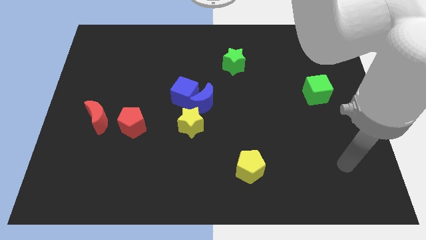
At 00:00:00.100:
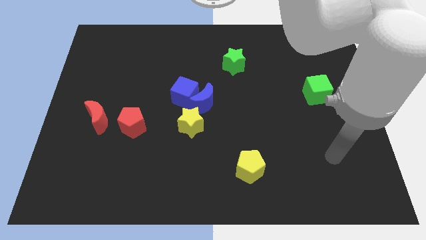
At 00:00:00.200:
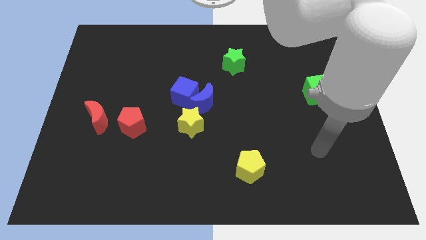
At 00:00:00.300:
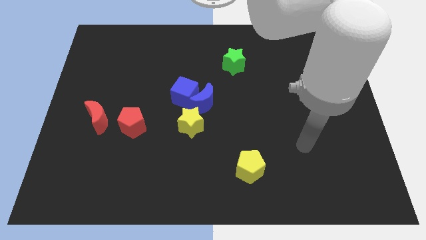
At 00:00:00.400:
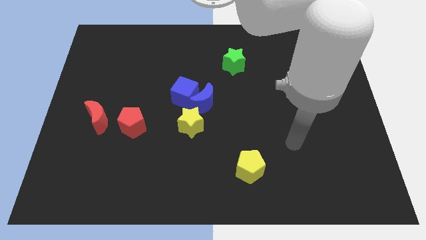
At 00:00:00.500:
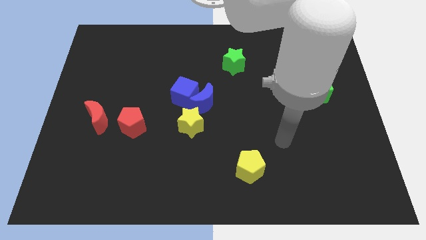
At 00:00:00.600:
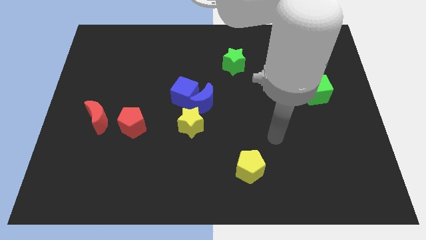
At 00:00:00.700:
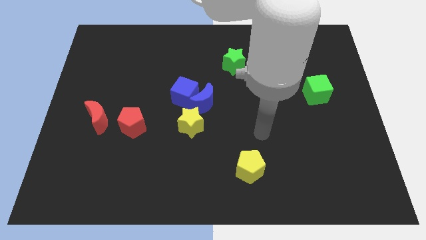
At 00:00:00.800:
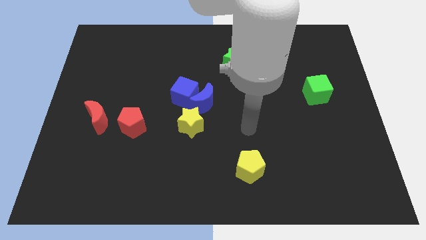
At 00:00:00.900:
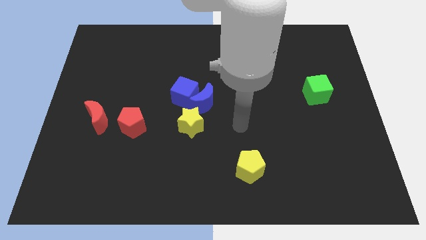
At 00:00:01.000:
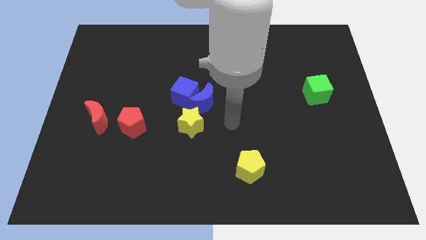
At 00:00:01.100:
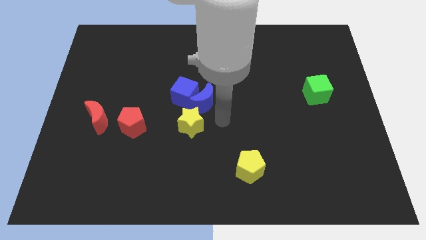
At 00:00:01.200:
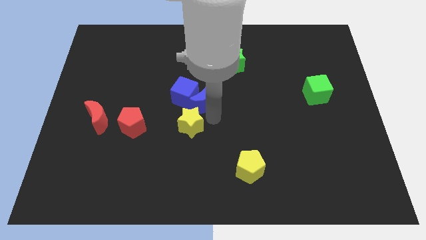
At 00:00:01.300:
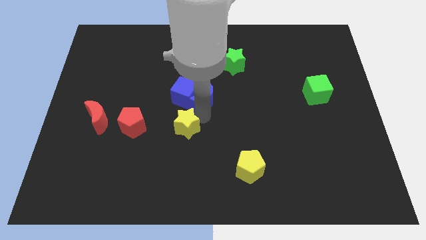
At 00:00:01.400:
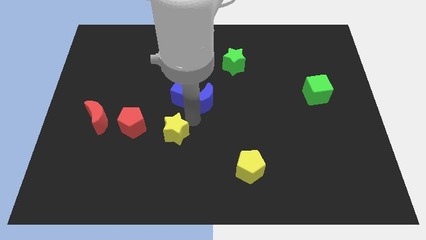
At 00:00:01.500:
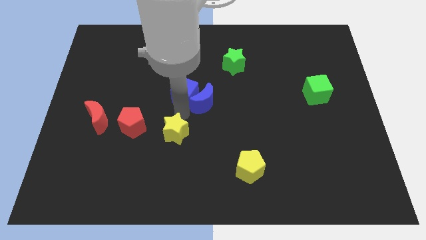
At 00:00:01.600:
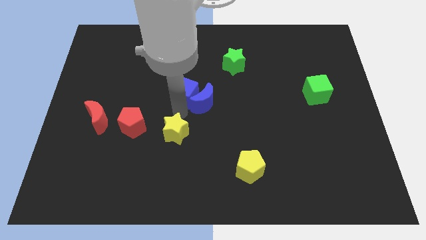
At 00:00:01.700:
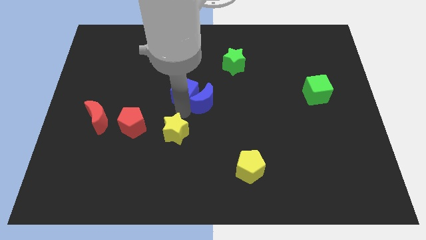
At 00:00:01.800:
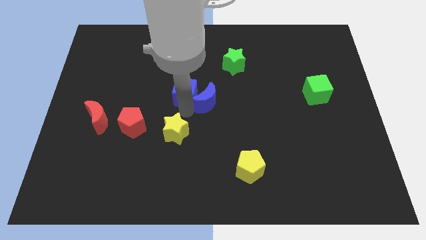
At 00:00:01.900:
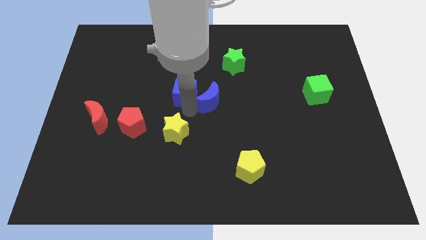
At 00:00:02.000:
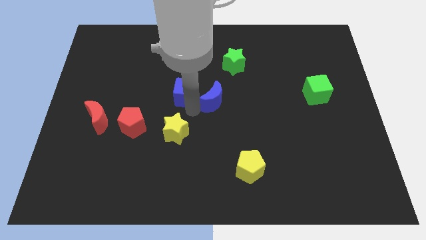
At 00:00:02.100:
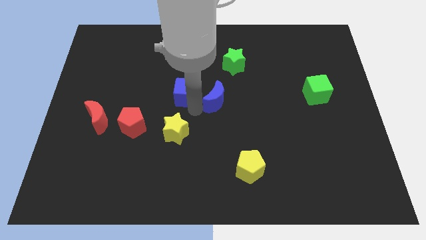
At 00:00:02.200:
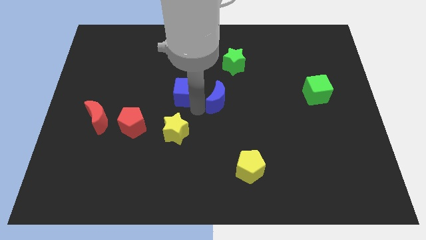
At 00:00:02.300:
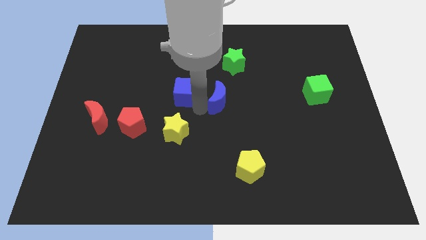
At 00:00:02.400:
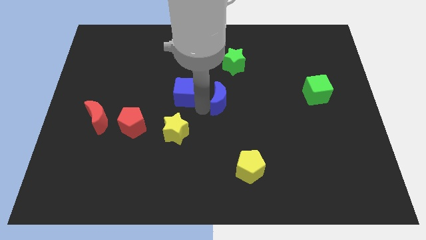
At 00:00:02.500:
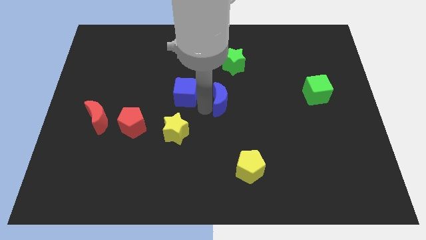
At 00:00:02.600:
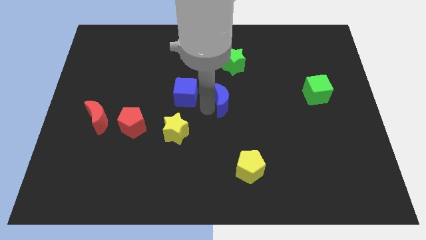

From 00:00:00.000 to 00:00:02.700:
pull the blue moon apart from the blue cube and yellow star

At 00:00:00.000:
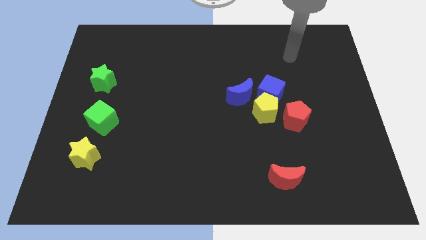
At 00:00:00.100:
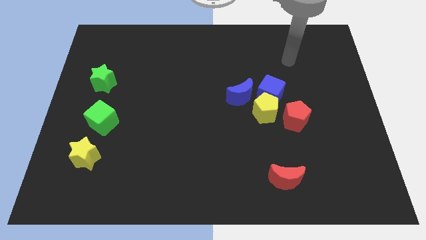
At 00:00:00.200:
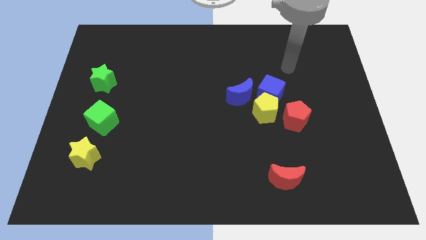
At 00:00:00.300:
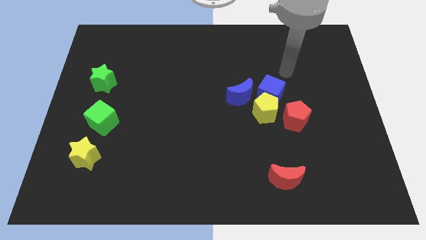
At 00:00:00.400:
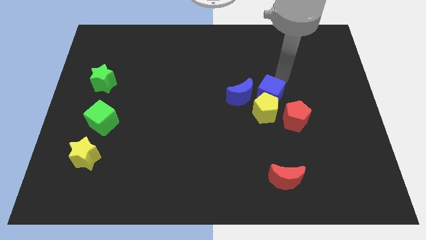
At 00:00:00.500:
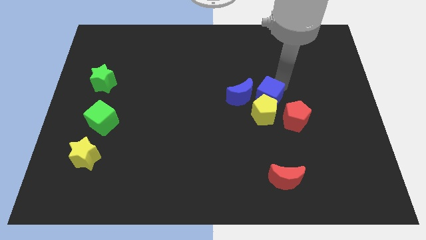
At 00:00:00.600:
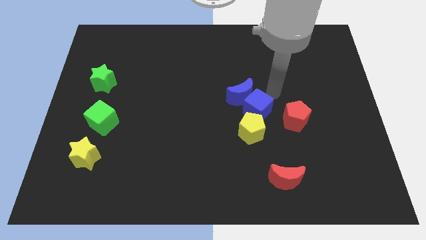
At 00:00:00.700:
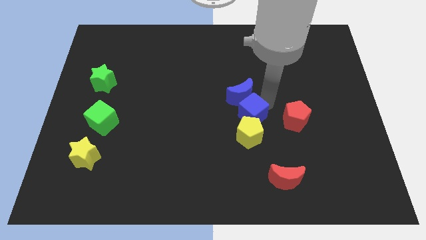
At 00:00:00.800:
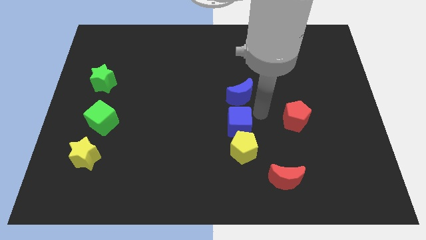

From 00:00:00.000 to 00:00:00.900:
pull the yellow pentagon apart from the group of blocks

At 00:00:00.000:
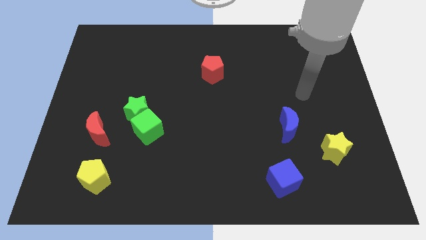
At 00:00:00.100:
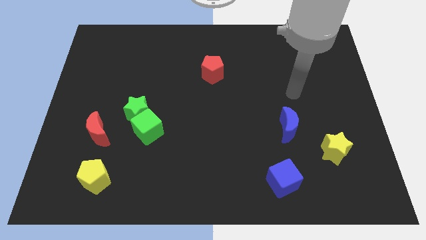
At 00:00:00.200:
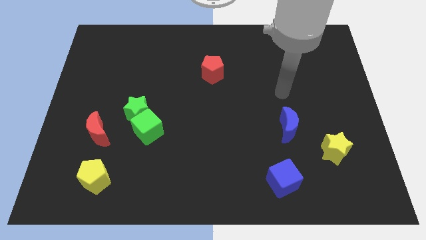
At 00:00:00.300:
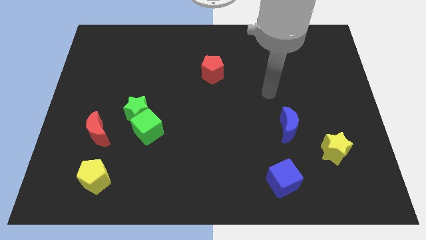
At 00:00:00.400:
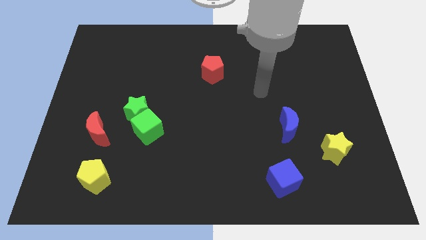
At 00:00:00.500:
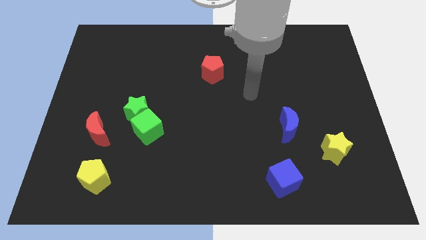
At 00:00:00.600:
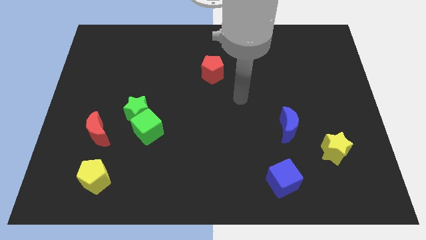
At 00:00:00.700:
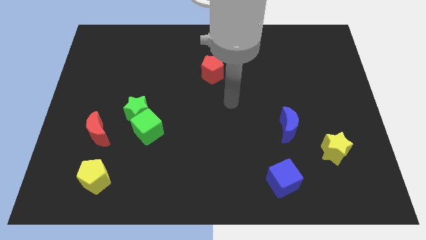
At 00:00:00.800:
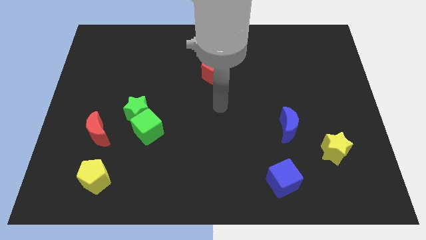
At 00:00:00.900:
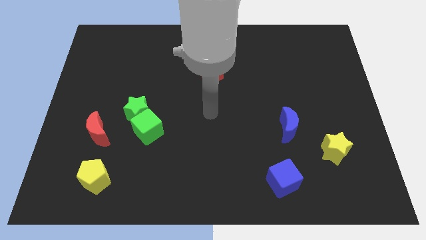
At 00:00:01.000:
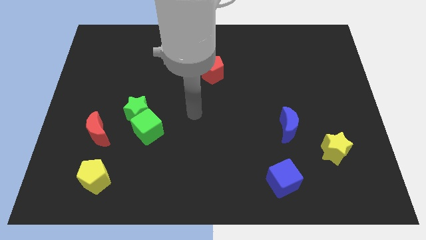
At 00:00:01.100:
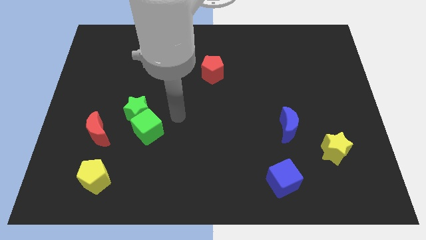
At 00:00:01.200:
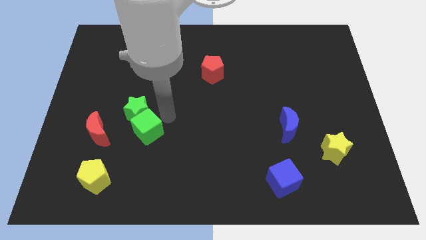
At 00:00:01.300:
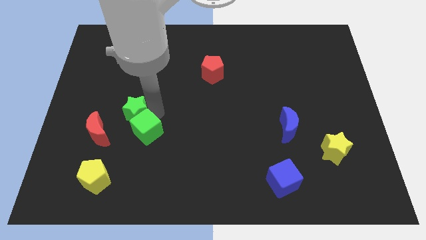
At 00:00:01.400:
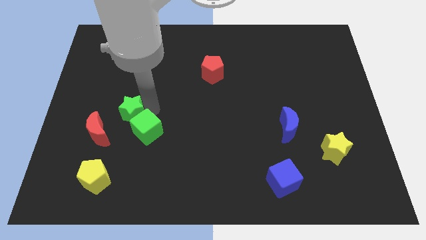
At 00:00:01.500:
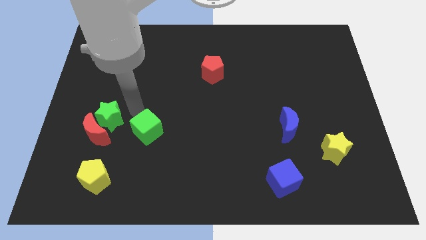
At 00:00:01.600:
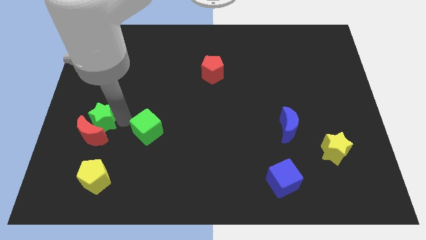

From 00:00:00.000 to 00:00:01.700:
separate the green cube from the green star

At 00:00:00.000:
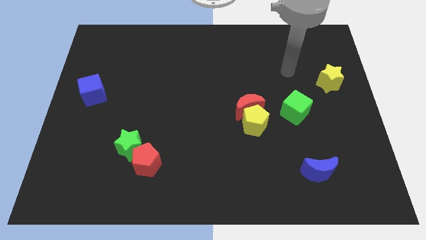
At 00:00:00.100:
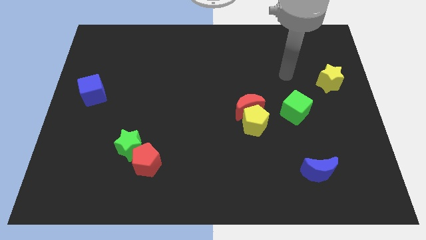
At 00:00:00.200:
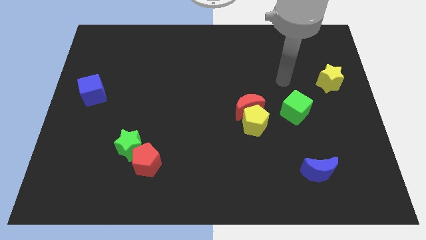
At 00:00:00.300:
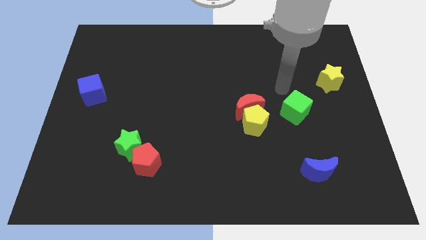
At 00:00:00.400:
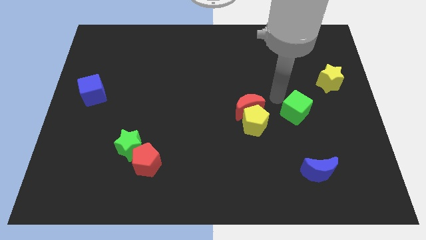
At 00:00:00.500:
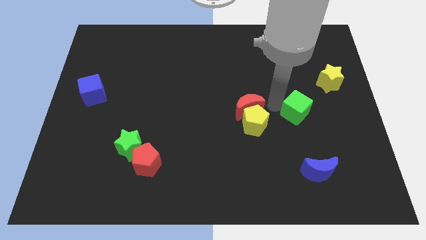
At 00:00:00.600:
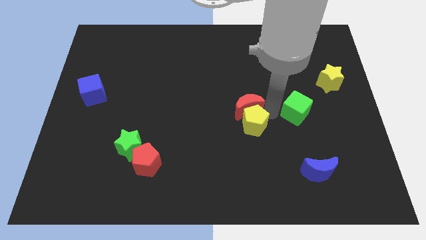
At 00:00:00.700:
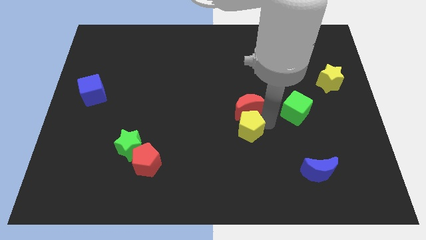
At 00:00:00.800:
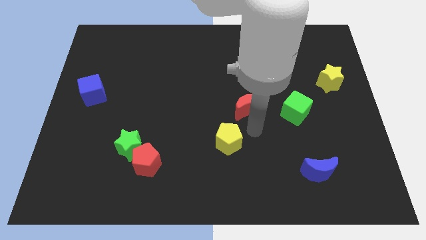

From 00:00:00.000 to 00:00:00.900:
separate the red moon from the yellow pentagon

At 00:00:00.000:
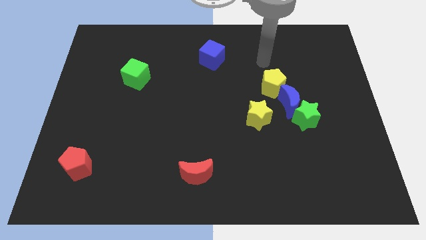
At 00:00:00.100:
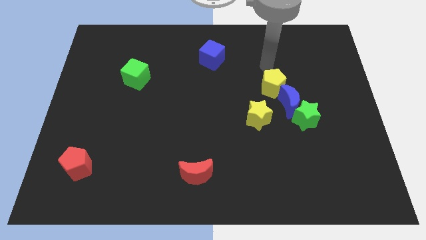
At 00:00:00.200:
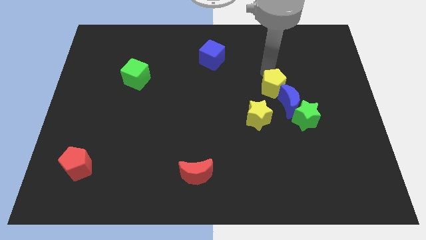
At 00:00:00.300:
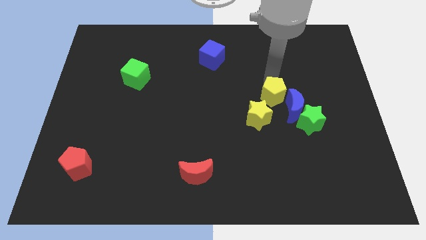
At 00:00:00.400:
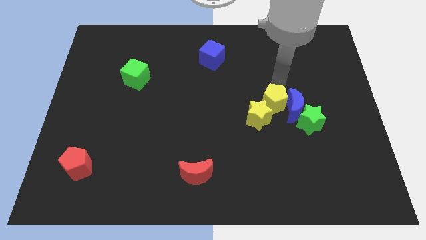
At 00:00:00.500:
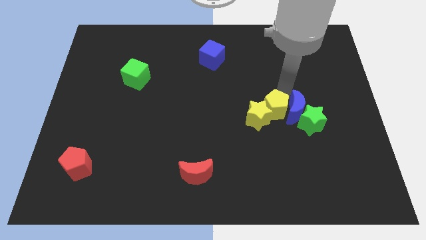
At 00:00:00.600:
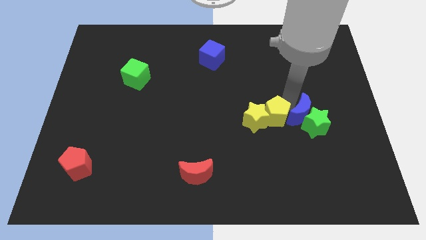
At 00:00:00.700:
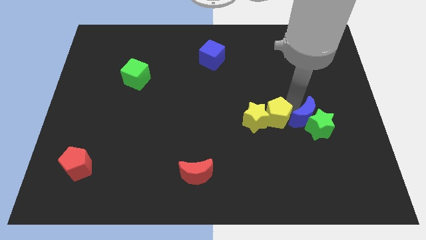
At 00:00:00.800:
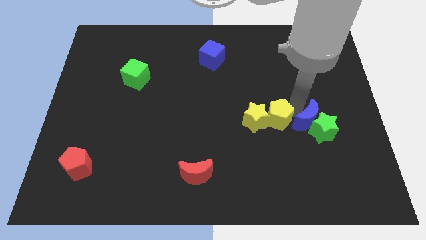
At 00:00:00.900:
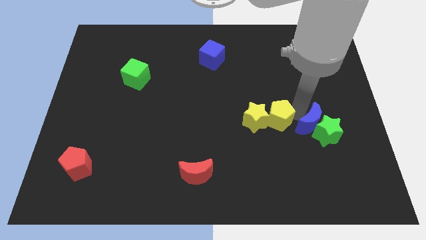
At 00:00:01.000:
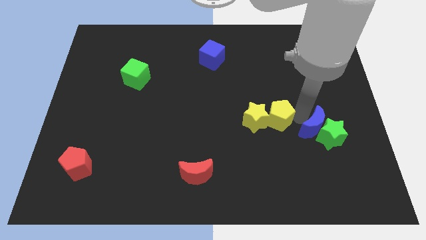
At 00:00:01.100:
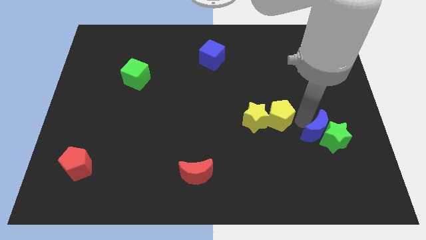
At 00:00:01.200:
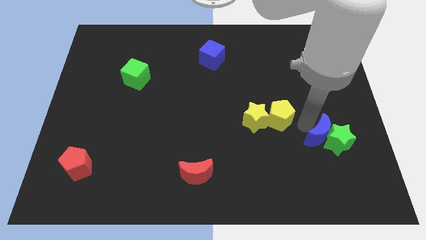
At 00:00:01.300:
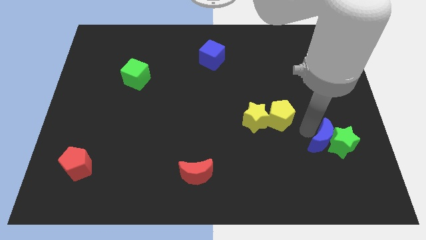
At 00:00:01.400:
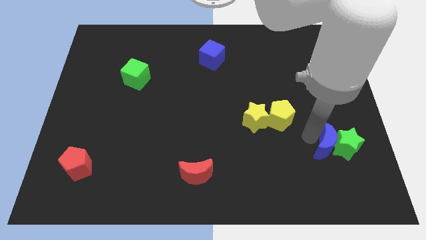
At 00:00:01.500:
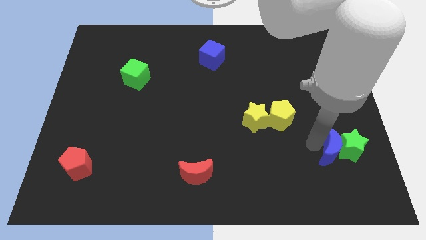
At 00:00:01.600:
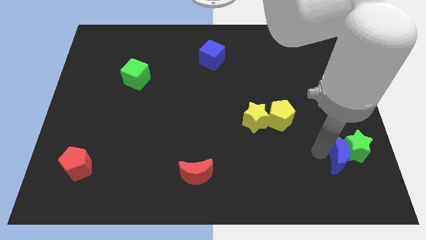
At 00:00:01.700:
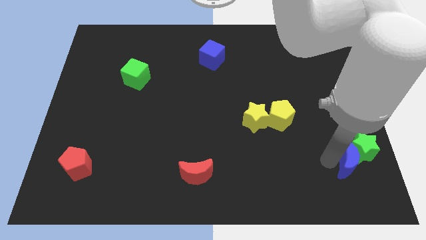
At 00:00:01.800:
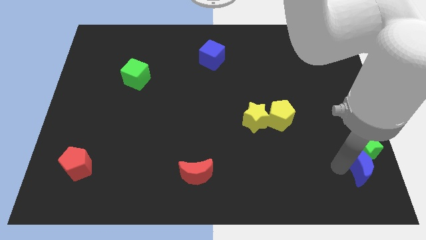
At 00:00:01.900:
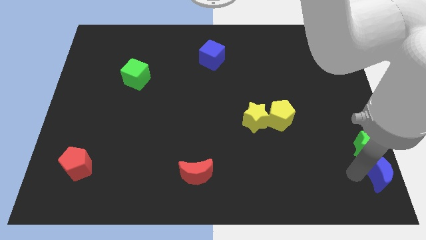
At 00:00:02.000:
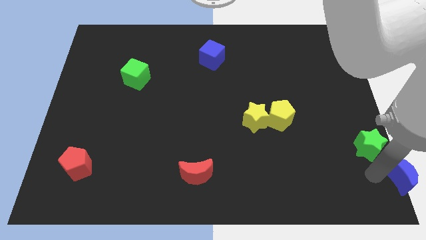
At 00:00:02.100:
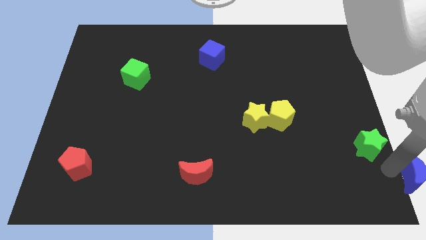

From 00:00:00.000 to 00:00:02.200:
separate the green star from the blue moon

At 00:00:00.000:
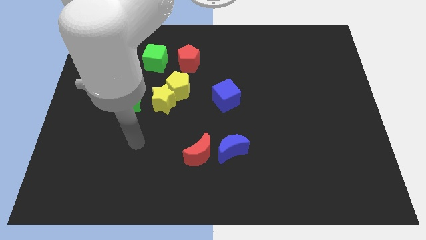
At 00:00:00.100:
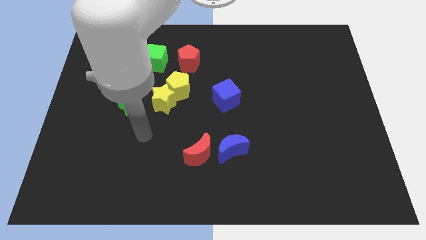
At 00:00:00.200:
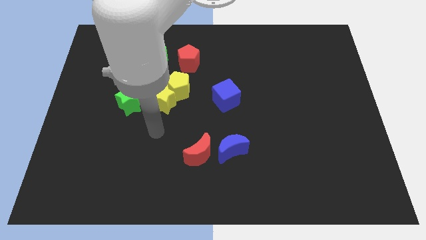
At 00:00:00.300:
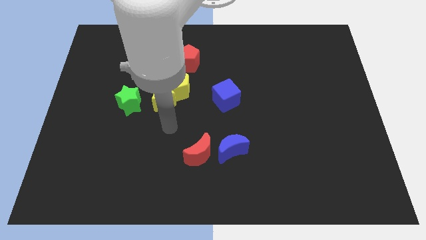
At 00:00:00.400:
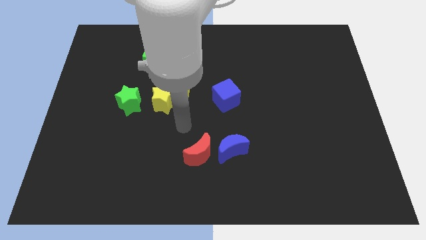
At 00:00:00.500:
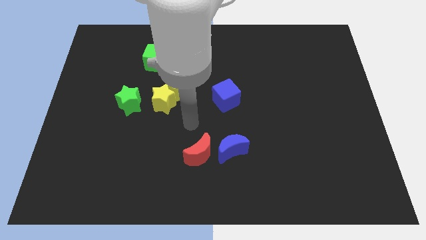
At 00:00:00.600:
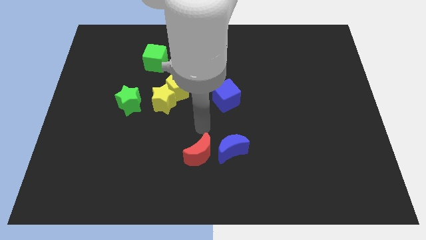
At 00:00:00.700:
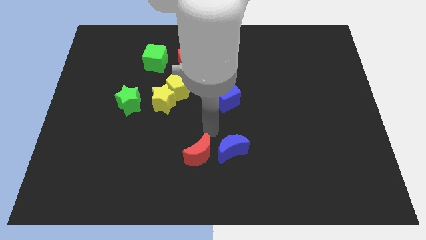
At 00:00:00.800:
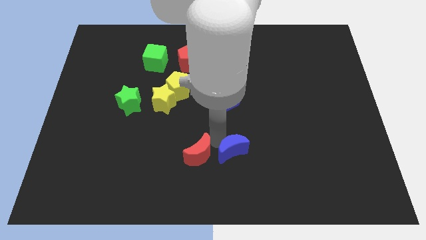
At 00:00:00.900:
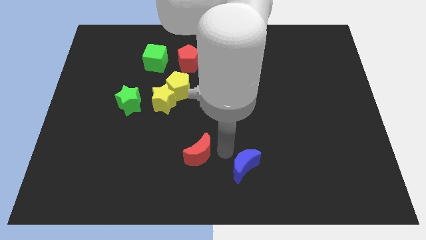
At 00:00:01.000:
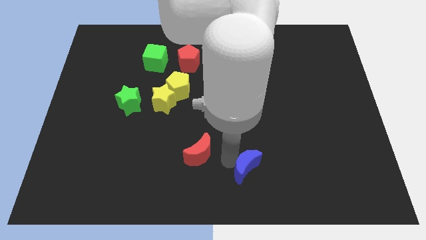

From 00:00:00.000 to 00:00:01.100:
move the red moon away from the blue moon
